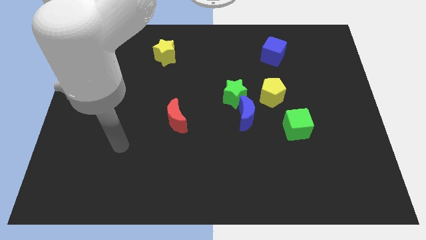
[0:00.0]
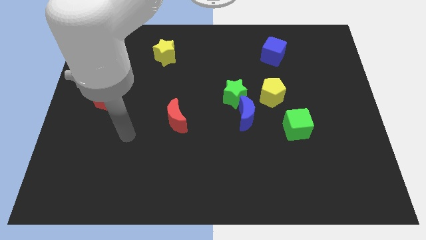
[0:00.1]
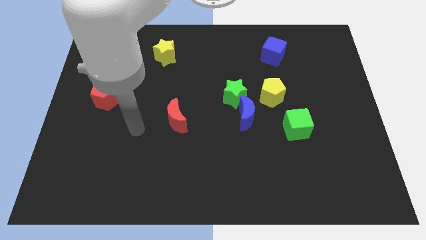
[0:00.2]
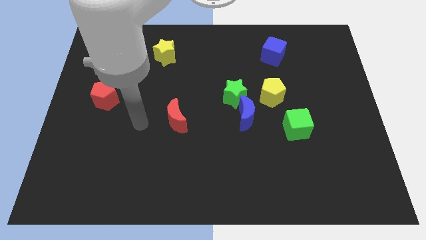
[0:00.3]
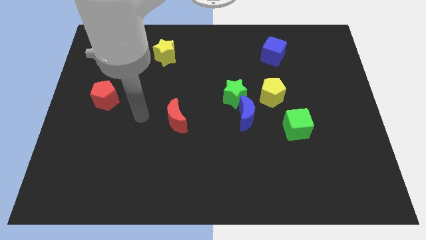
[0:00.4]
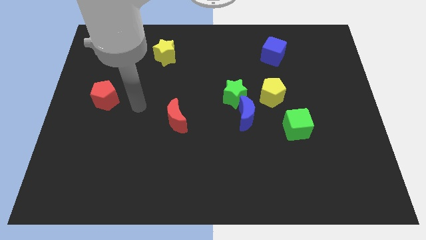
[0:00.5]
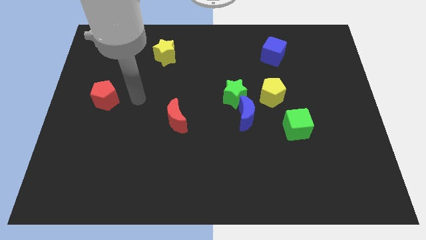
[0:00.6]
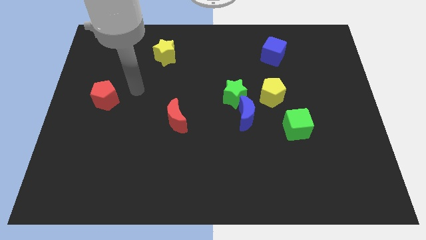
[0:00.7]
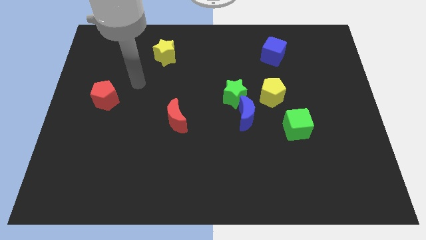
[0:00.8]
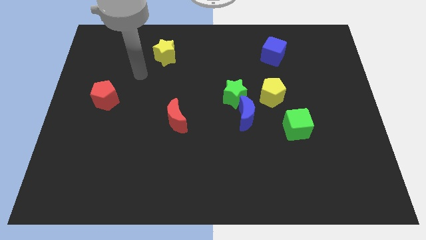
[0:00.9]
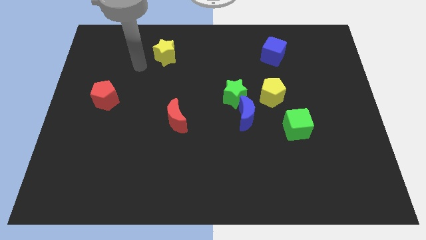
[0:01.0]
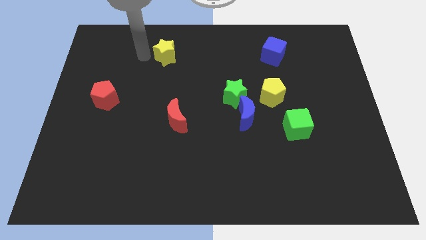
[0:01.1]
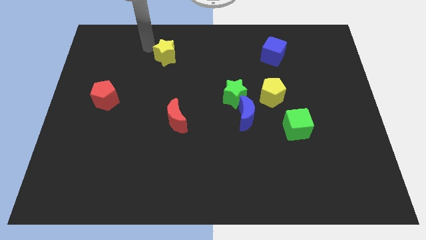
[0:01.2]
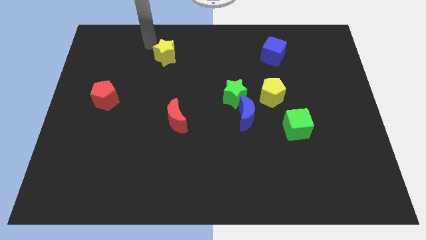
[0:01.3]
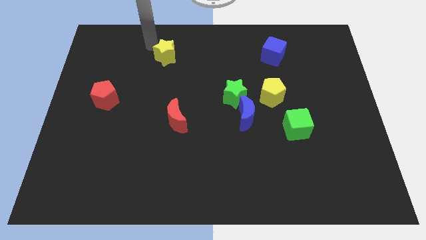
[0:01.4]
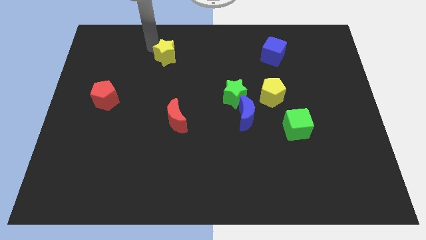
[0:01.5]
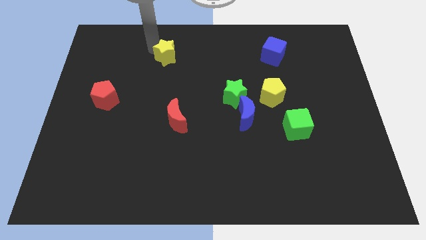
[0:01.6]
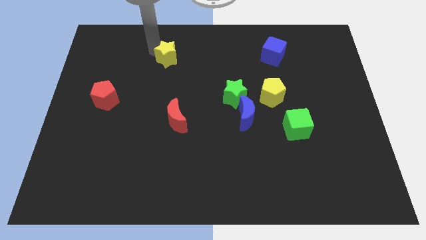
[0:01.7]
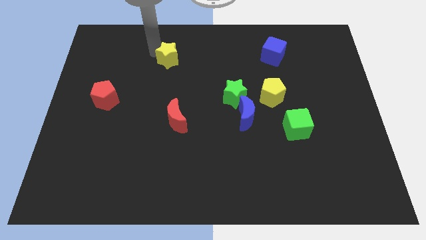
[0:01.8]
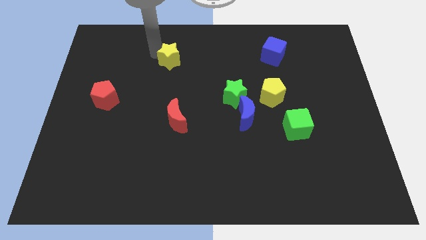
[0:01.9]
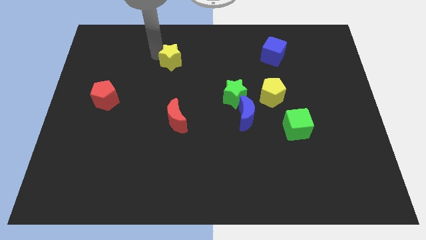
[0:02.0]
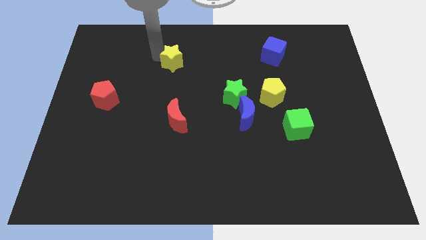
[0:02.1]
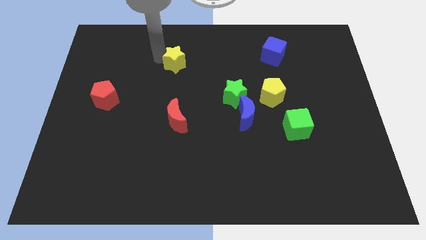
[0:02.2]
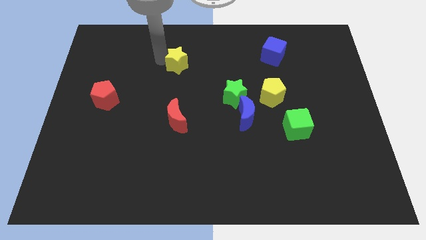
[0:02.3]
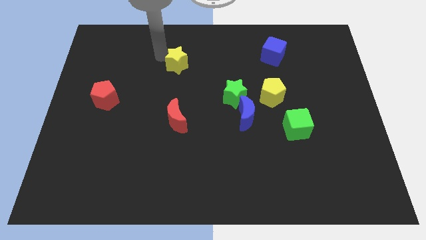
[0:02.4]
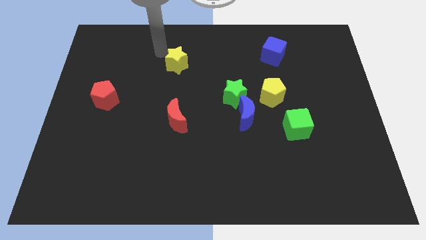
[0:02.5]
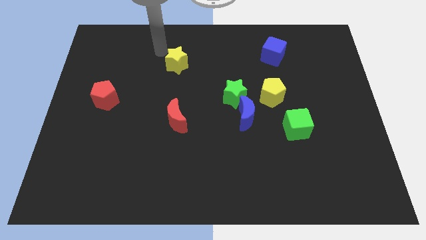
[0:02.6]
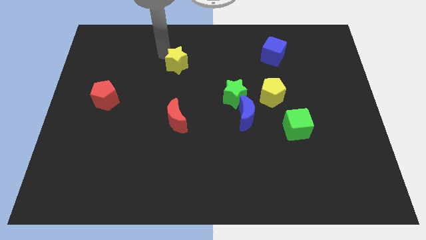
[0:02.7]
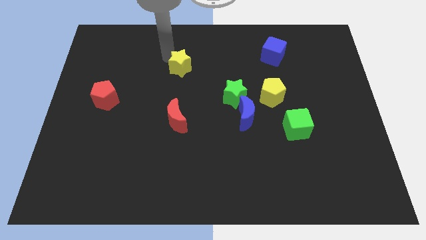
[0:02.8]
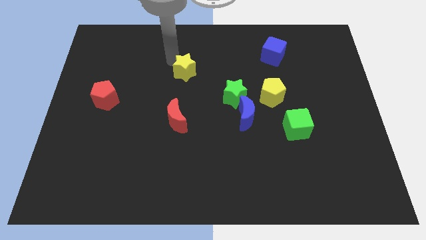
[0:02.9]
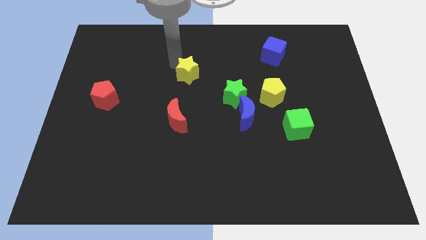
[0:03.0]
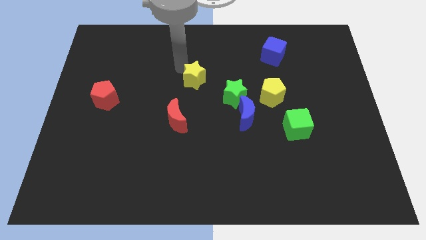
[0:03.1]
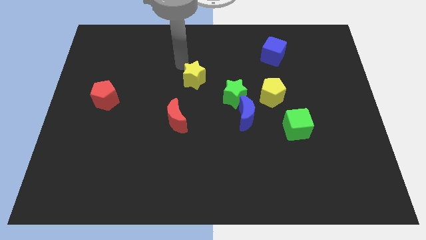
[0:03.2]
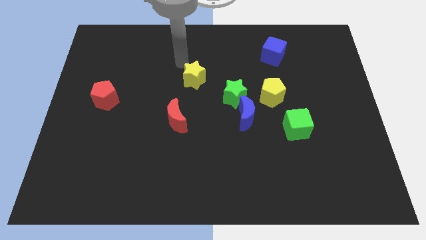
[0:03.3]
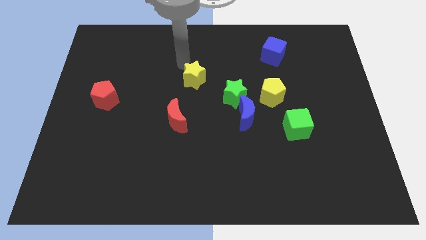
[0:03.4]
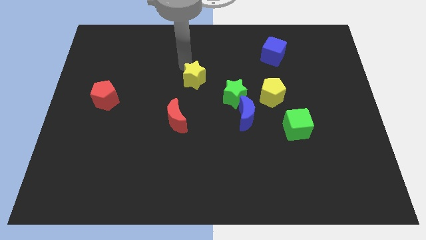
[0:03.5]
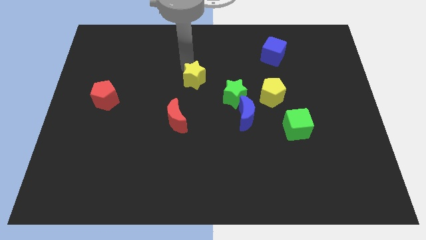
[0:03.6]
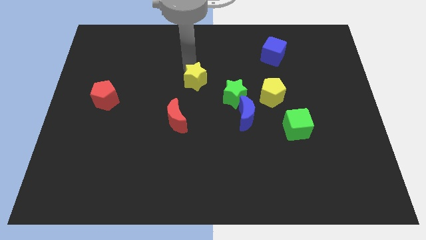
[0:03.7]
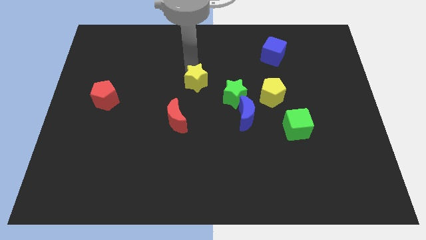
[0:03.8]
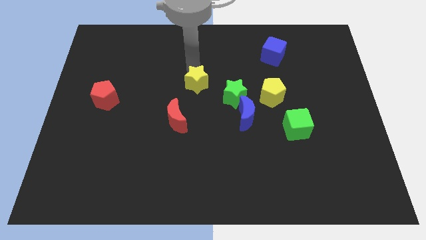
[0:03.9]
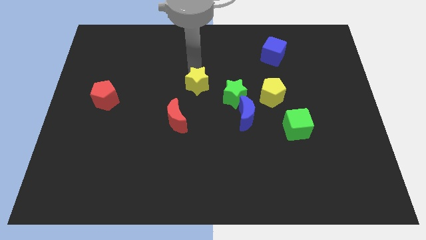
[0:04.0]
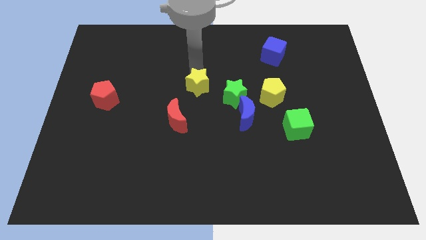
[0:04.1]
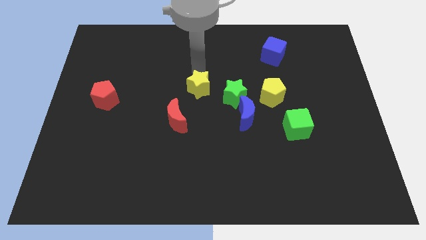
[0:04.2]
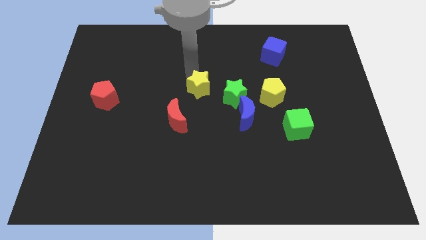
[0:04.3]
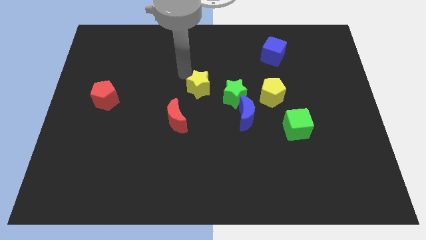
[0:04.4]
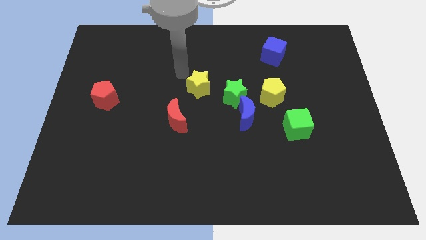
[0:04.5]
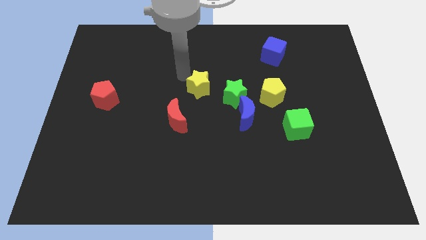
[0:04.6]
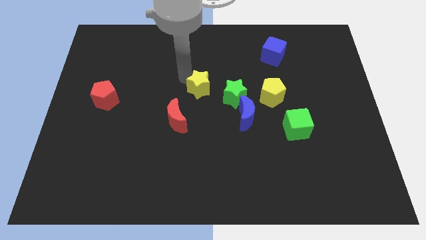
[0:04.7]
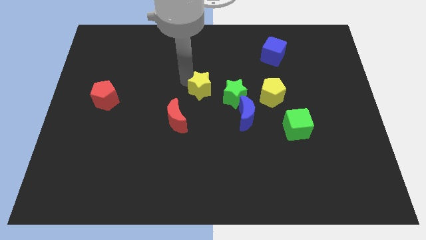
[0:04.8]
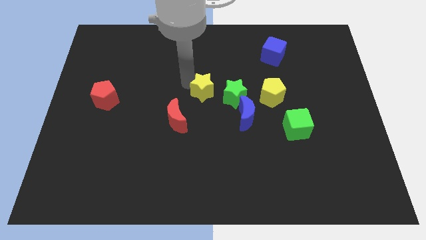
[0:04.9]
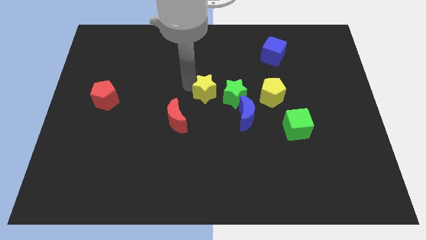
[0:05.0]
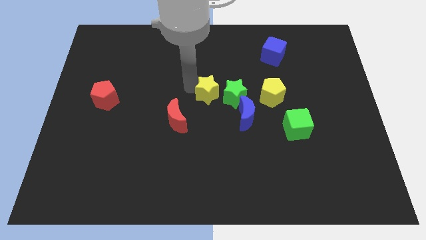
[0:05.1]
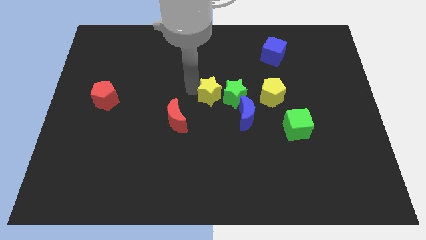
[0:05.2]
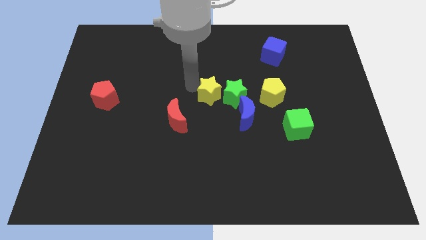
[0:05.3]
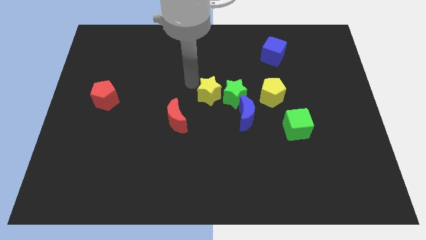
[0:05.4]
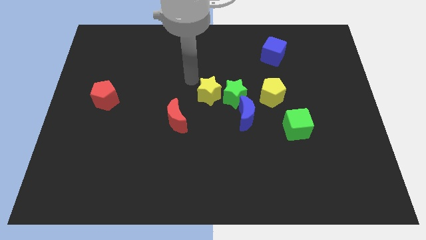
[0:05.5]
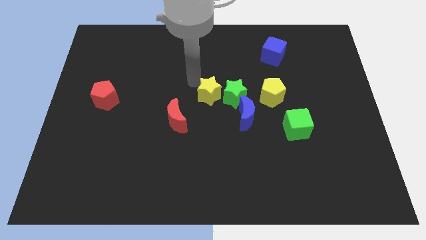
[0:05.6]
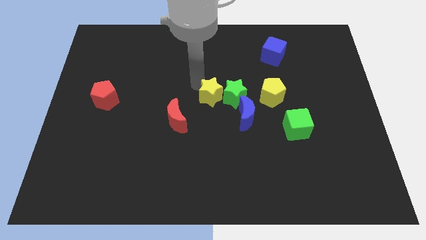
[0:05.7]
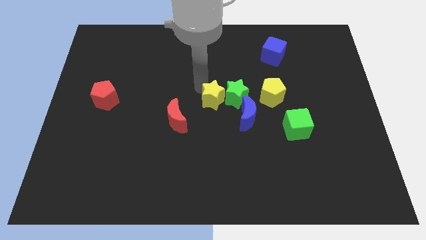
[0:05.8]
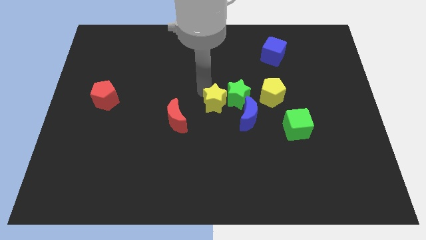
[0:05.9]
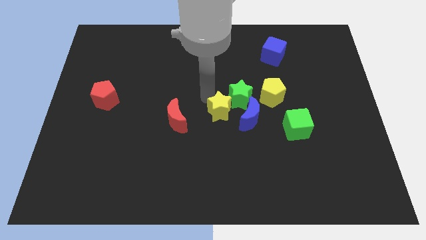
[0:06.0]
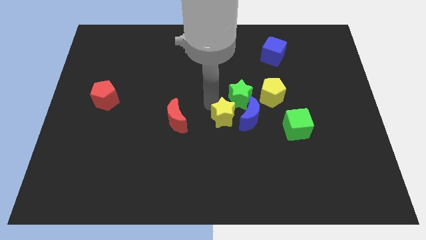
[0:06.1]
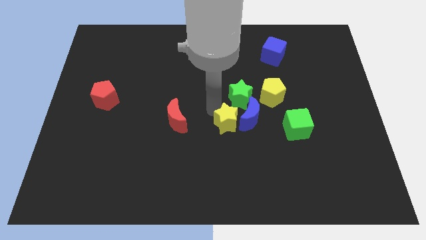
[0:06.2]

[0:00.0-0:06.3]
push the yellow star towards the blue moon

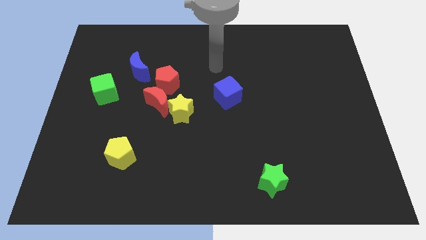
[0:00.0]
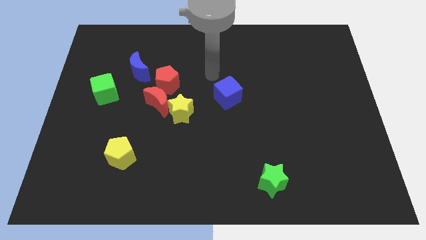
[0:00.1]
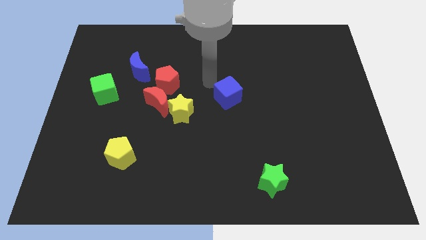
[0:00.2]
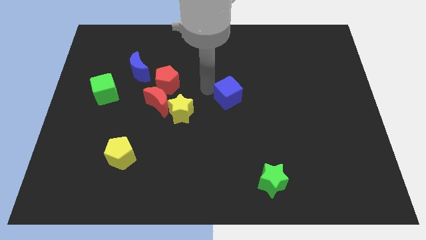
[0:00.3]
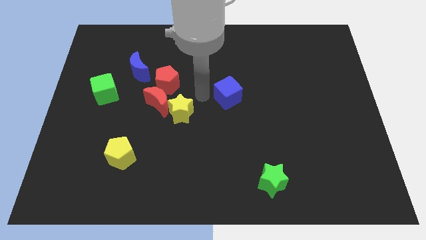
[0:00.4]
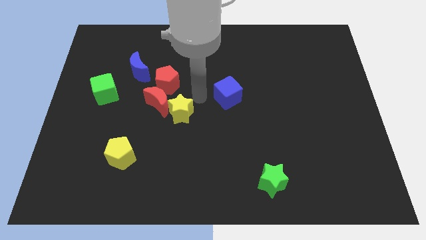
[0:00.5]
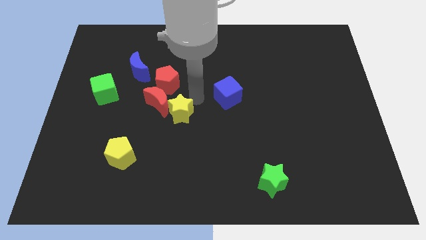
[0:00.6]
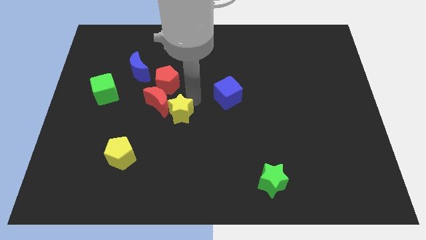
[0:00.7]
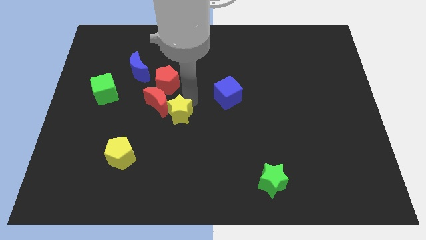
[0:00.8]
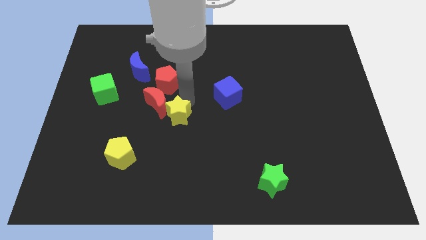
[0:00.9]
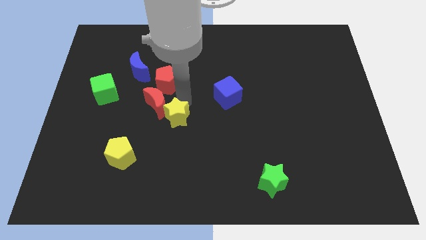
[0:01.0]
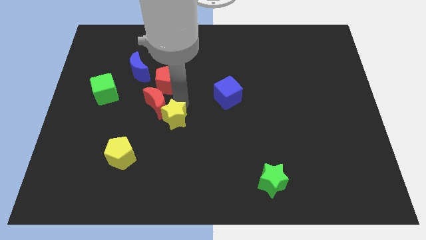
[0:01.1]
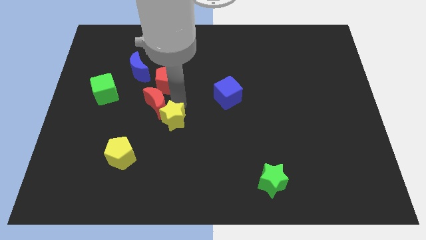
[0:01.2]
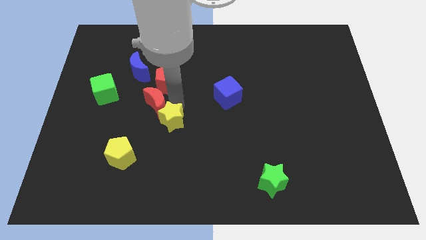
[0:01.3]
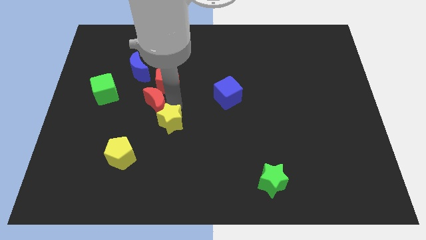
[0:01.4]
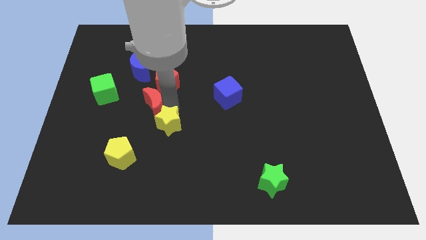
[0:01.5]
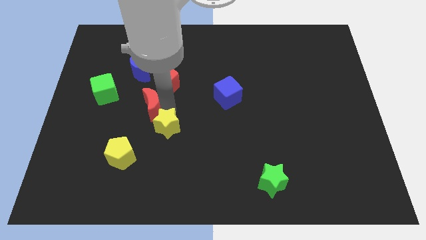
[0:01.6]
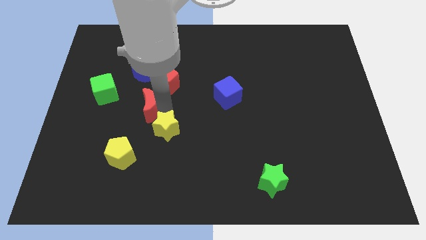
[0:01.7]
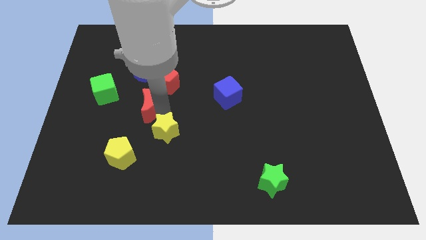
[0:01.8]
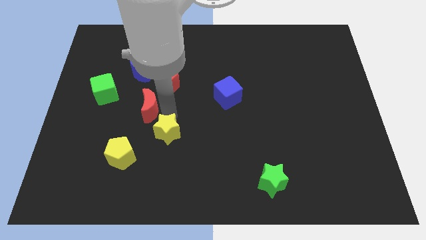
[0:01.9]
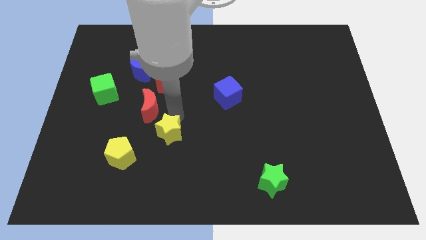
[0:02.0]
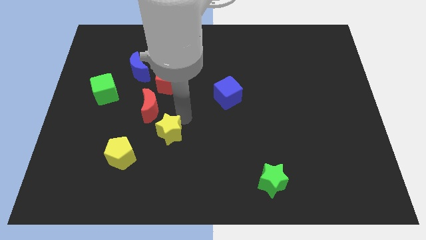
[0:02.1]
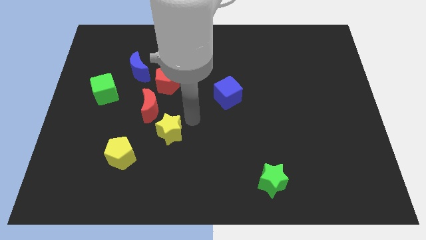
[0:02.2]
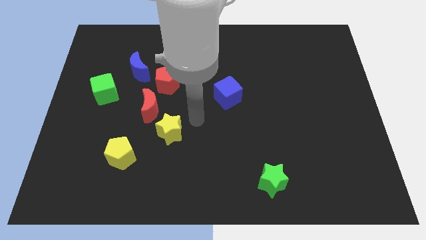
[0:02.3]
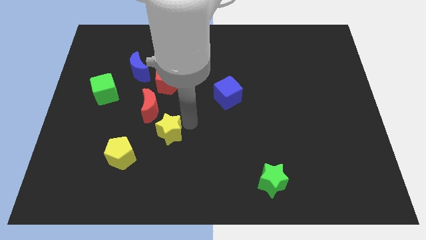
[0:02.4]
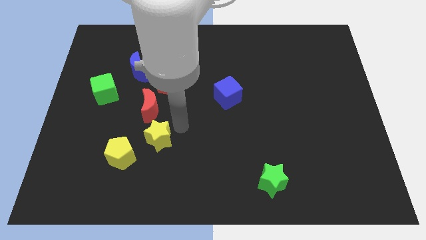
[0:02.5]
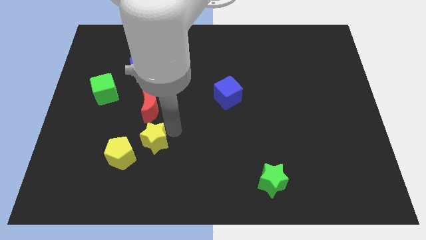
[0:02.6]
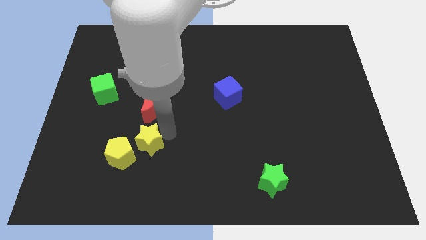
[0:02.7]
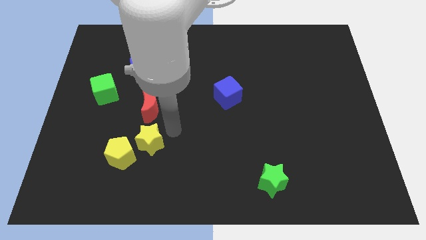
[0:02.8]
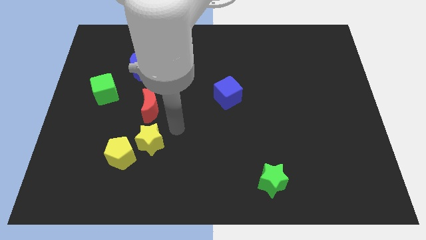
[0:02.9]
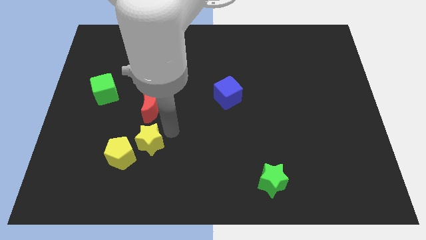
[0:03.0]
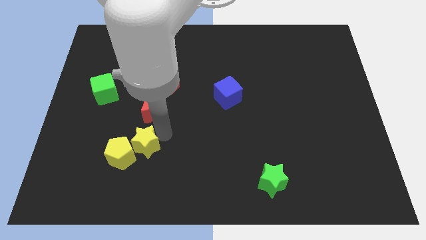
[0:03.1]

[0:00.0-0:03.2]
slide the yellow star next to the yellow pentagon
